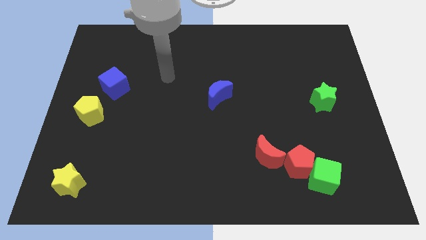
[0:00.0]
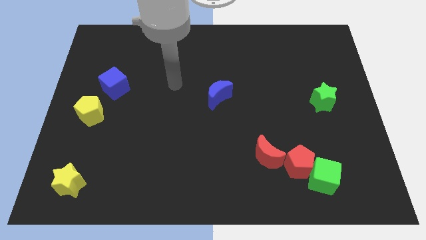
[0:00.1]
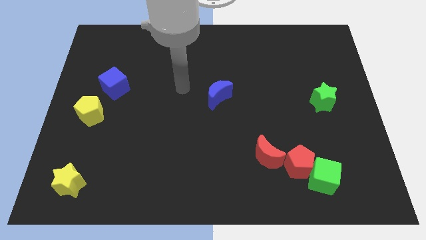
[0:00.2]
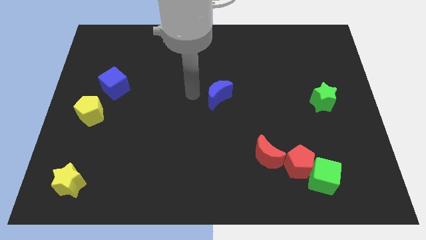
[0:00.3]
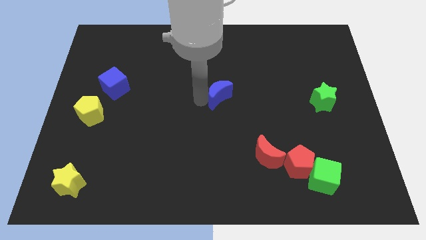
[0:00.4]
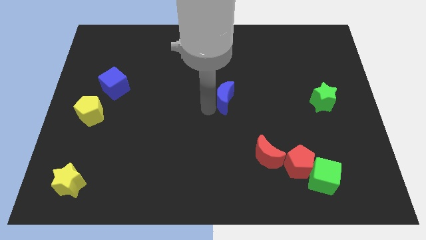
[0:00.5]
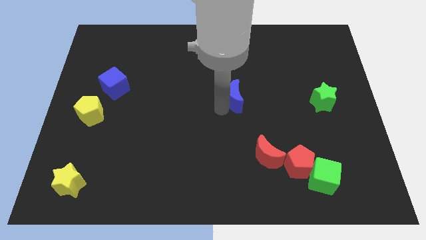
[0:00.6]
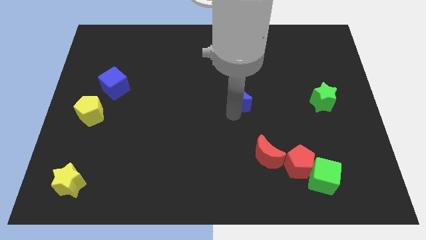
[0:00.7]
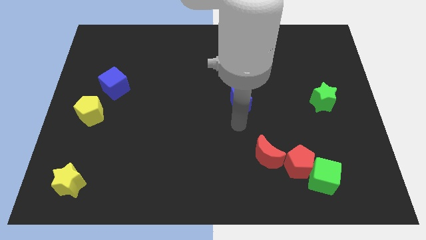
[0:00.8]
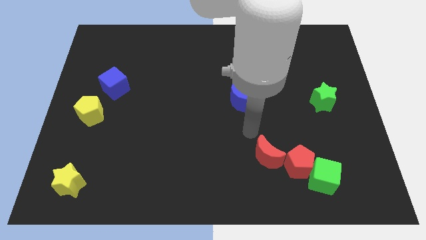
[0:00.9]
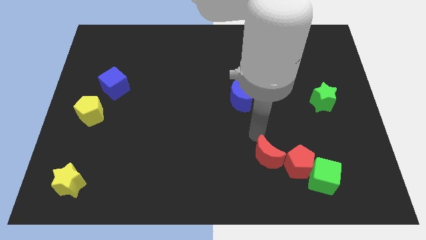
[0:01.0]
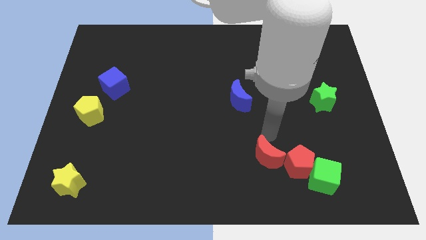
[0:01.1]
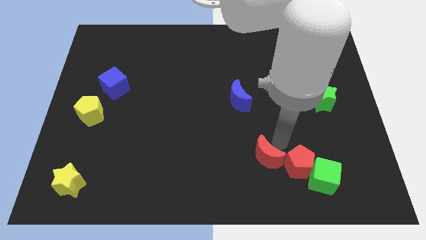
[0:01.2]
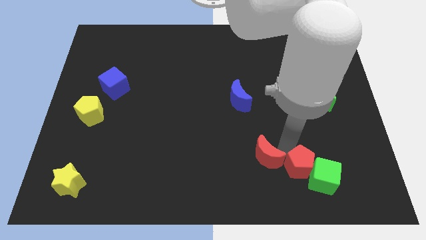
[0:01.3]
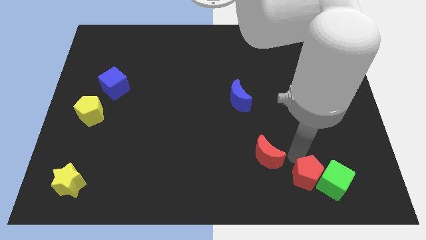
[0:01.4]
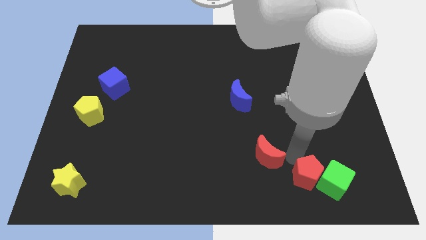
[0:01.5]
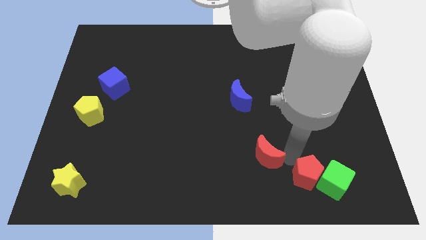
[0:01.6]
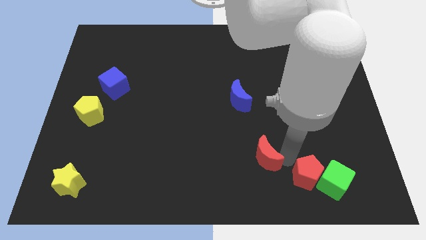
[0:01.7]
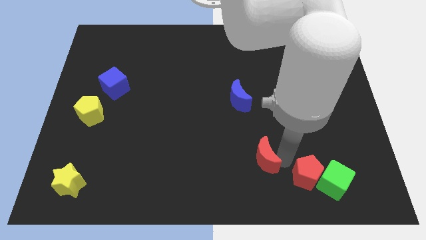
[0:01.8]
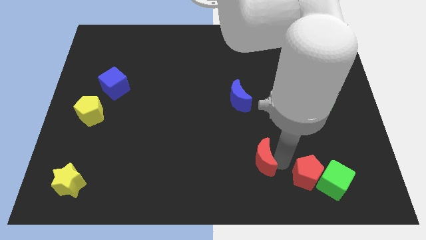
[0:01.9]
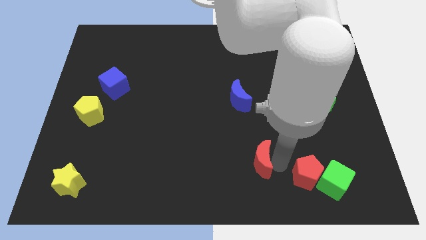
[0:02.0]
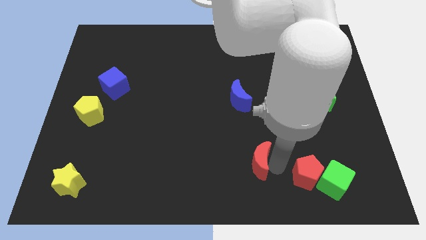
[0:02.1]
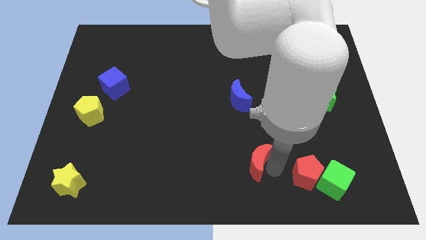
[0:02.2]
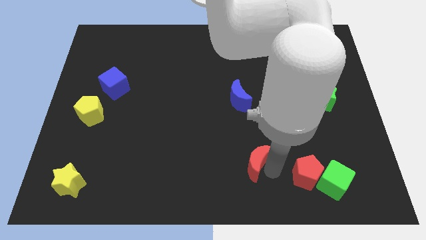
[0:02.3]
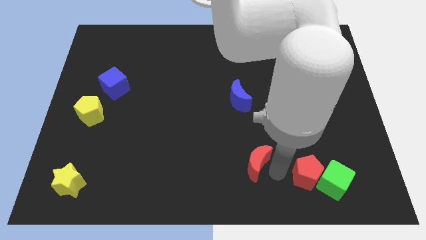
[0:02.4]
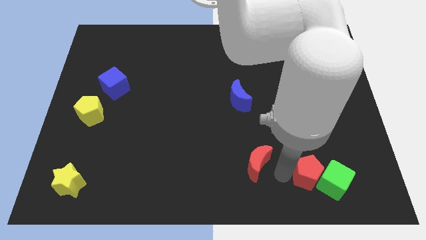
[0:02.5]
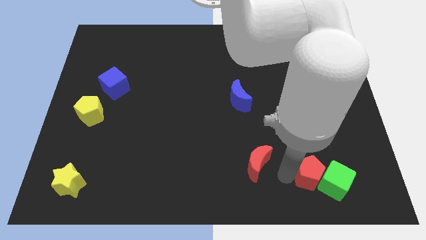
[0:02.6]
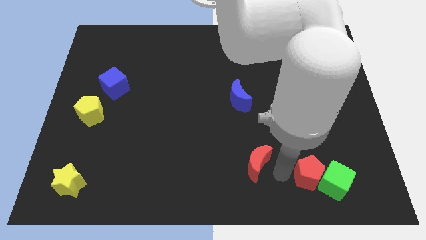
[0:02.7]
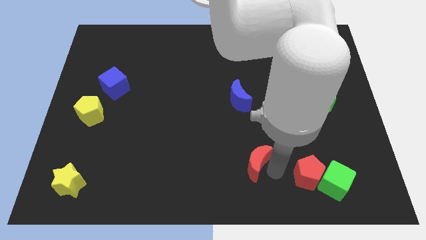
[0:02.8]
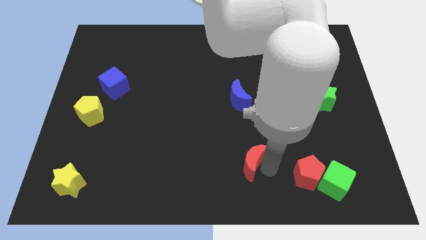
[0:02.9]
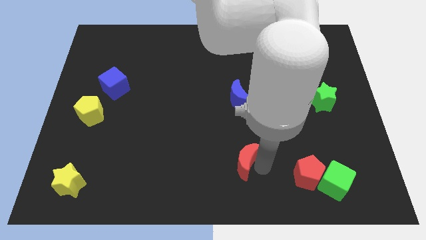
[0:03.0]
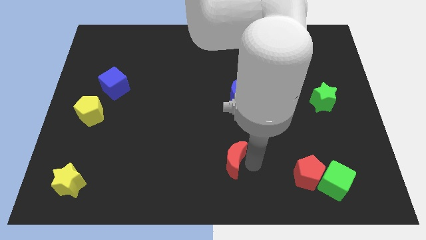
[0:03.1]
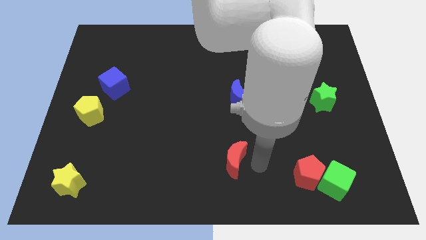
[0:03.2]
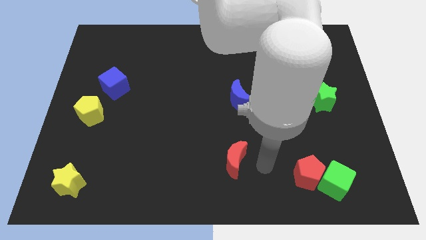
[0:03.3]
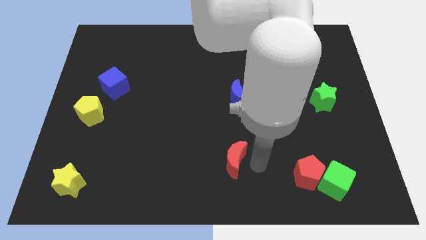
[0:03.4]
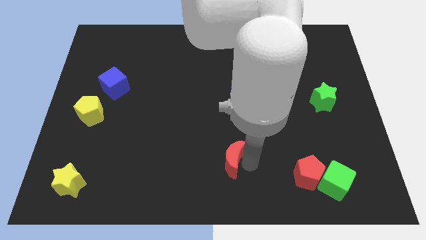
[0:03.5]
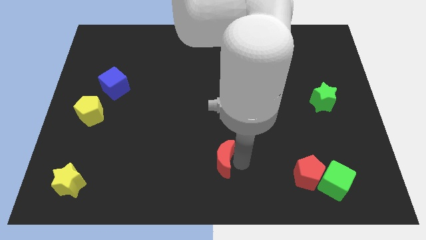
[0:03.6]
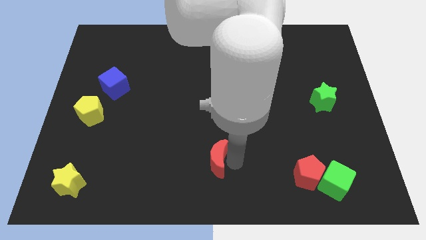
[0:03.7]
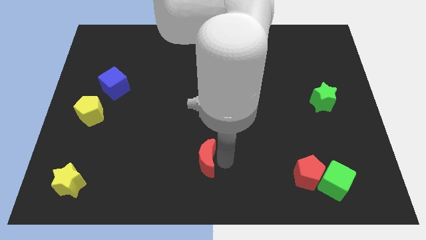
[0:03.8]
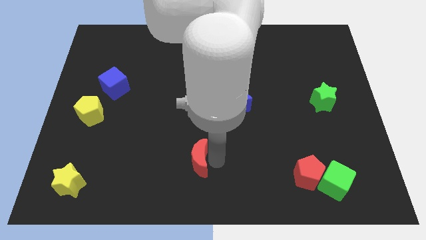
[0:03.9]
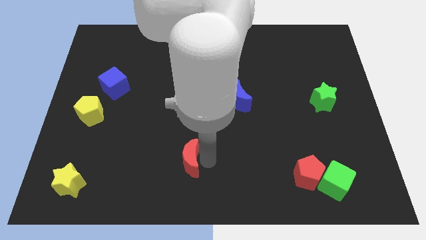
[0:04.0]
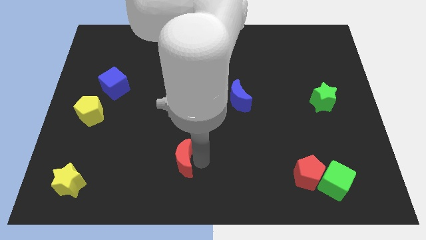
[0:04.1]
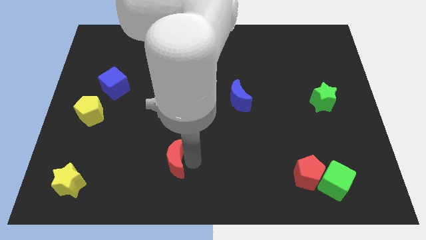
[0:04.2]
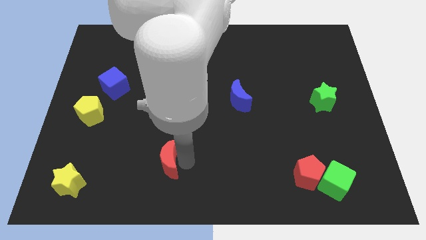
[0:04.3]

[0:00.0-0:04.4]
slide the red moon to the left

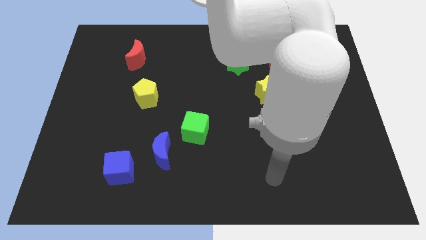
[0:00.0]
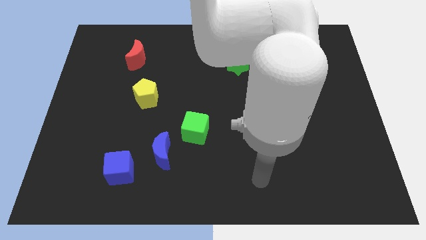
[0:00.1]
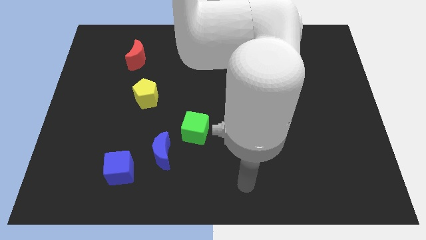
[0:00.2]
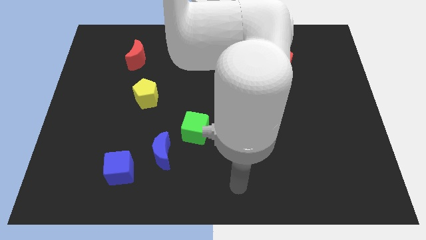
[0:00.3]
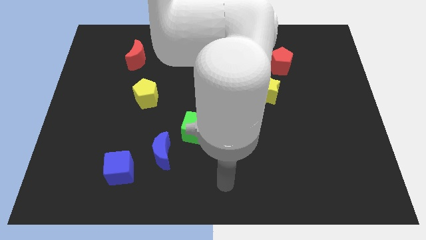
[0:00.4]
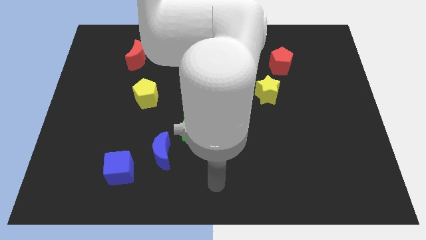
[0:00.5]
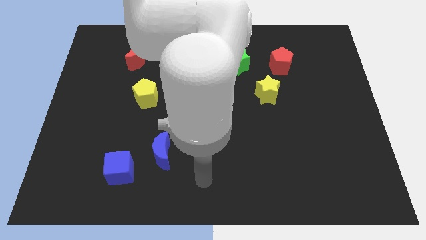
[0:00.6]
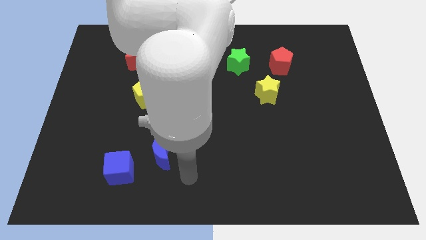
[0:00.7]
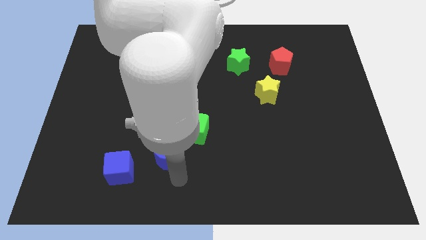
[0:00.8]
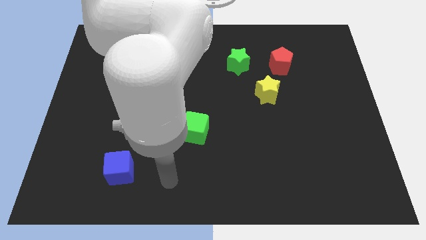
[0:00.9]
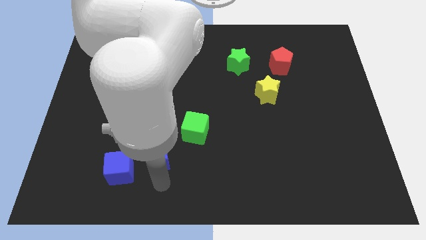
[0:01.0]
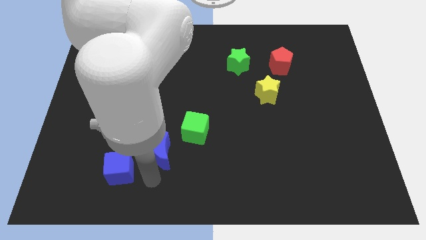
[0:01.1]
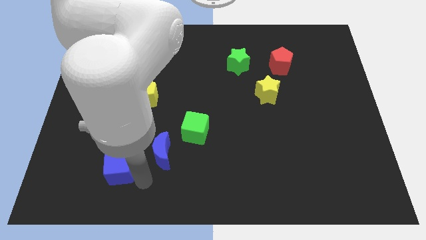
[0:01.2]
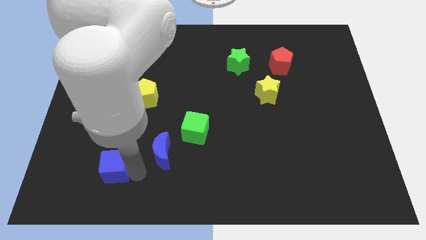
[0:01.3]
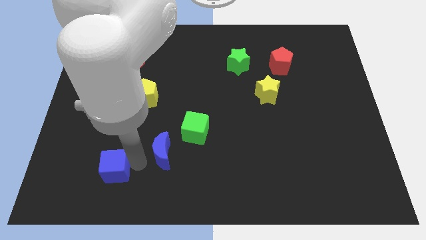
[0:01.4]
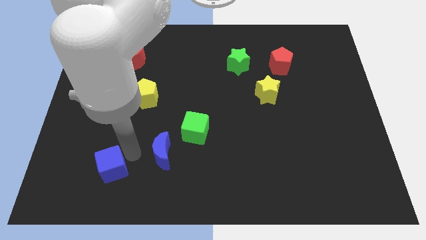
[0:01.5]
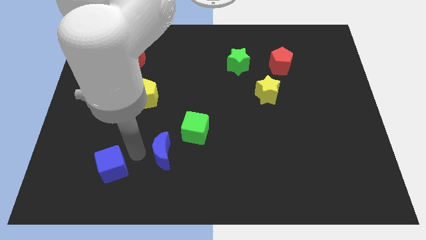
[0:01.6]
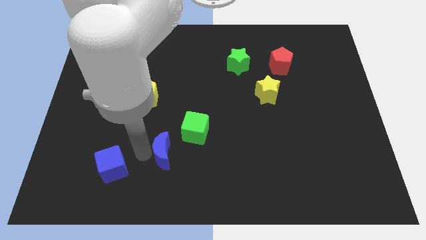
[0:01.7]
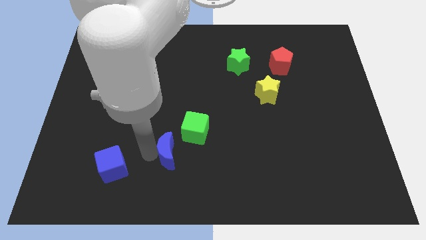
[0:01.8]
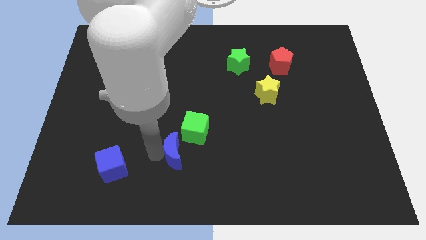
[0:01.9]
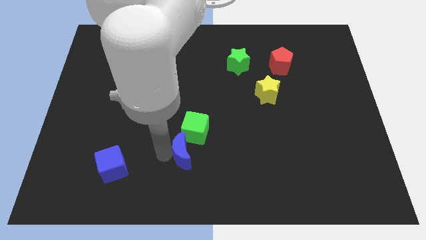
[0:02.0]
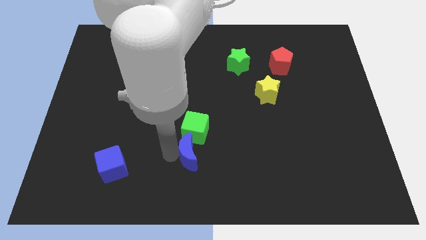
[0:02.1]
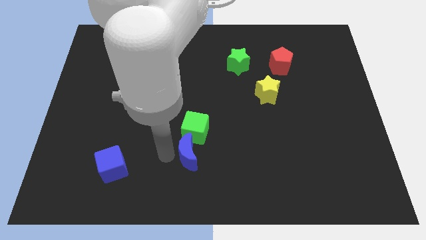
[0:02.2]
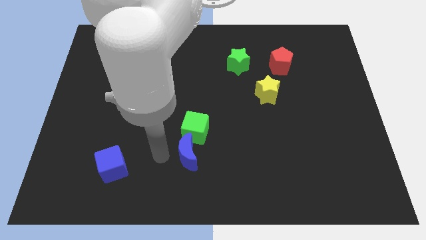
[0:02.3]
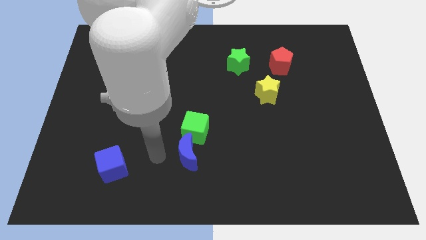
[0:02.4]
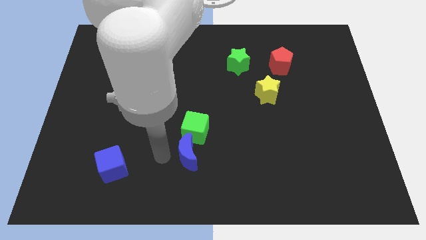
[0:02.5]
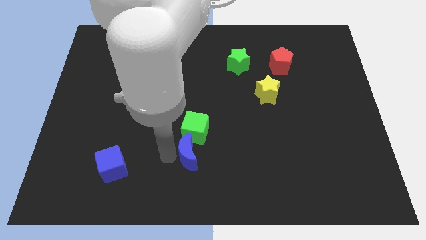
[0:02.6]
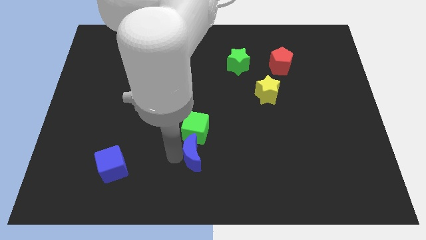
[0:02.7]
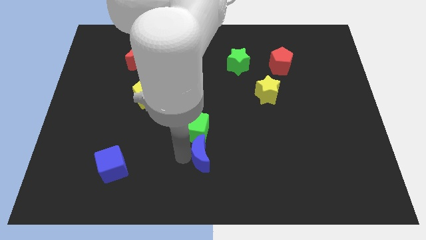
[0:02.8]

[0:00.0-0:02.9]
push the blue moon slightly to the right

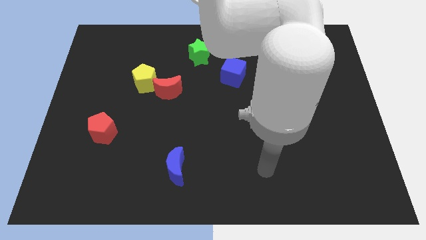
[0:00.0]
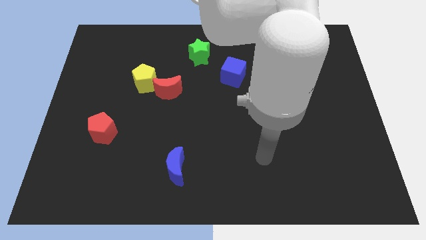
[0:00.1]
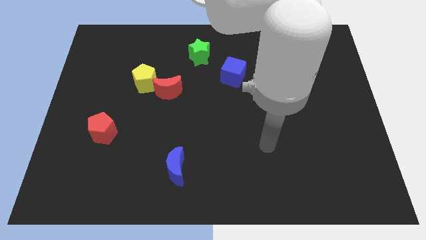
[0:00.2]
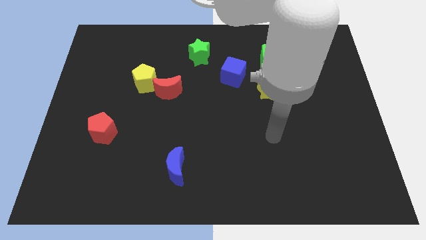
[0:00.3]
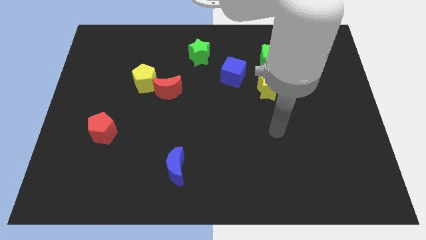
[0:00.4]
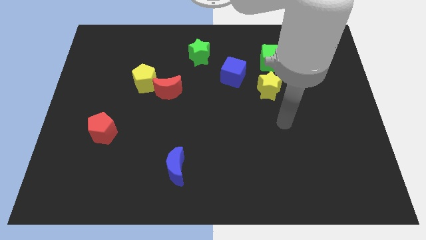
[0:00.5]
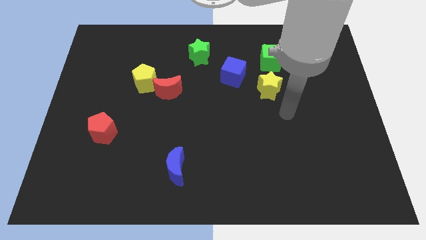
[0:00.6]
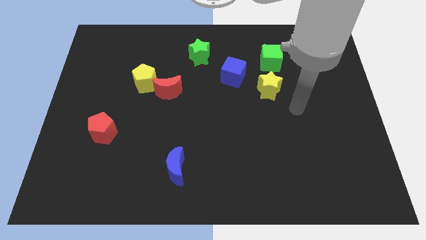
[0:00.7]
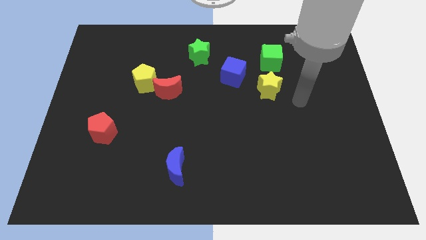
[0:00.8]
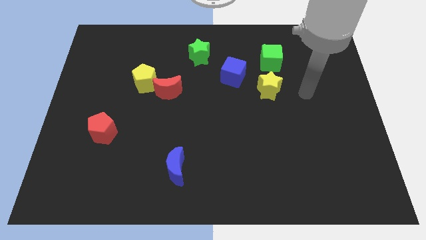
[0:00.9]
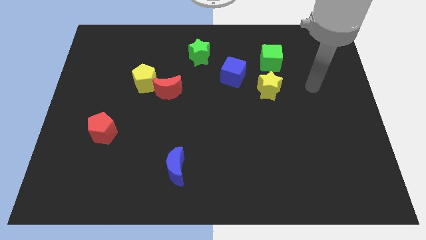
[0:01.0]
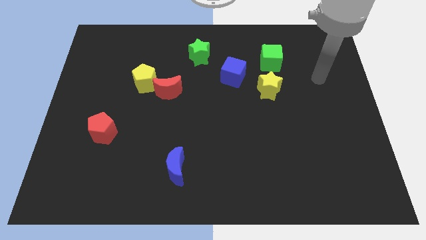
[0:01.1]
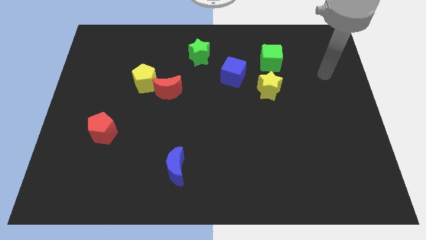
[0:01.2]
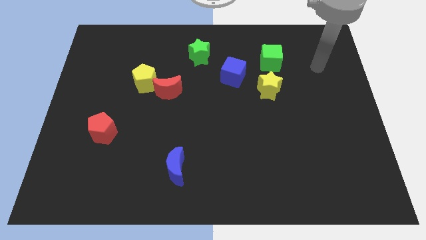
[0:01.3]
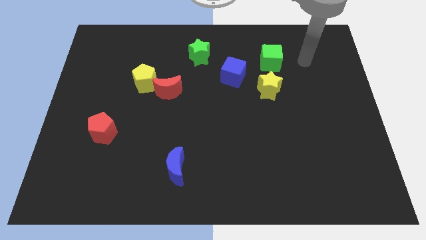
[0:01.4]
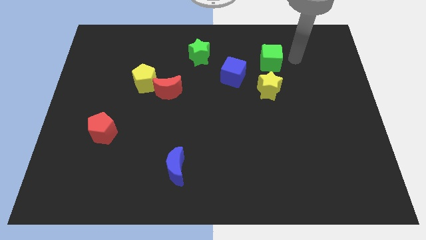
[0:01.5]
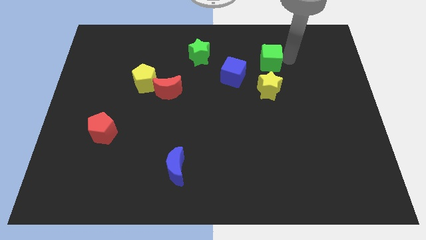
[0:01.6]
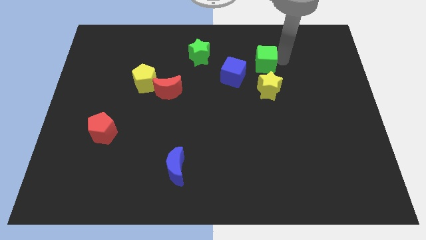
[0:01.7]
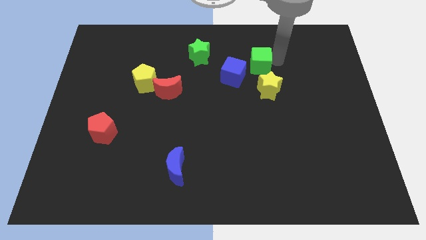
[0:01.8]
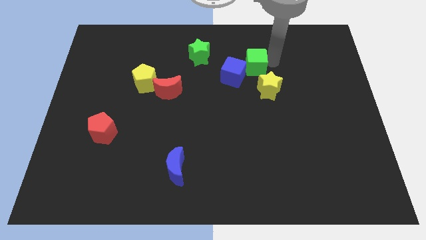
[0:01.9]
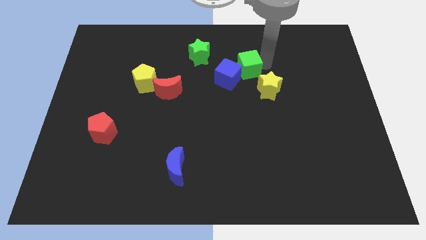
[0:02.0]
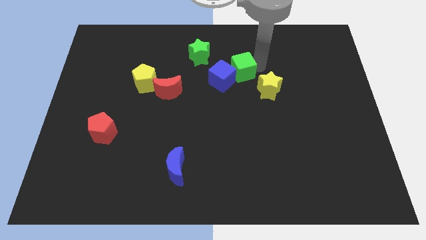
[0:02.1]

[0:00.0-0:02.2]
slightly push the green cube down and left diagonally
